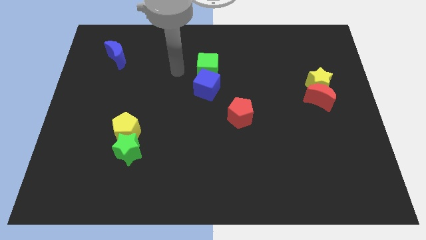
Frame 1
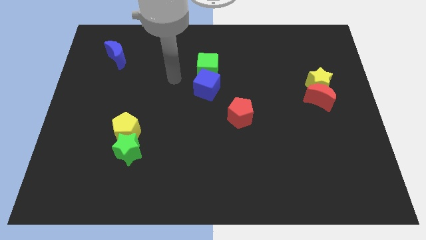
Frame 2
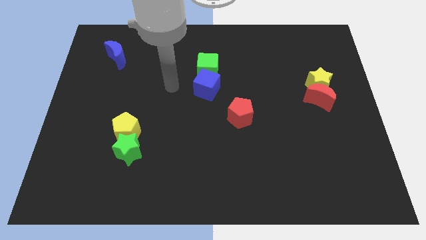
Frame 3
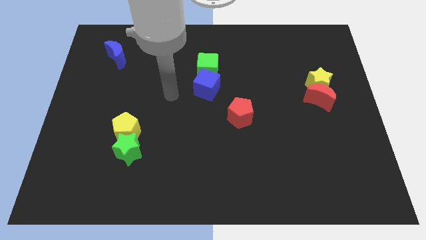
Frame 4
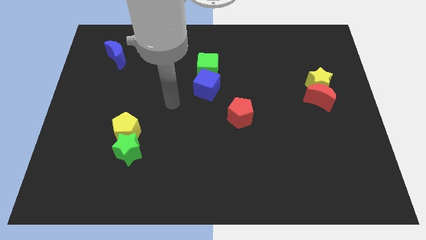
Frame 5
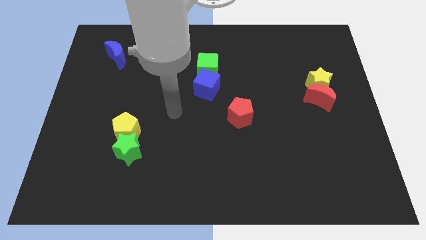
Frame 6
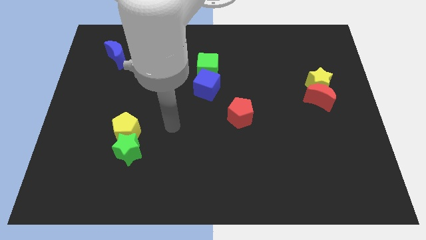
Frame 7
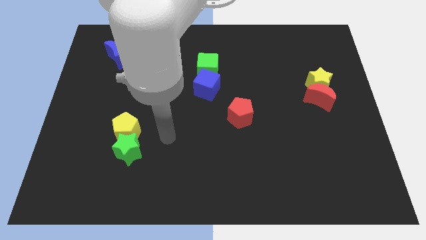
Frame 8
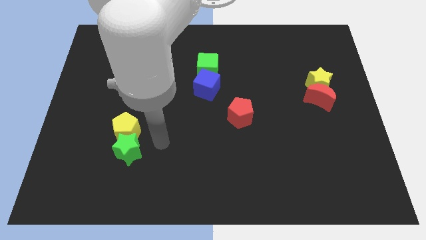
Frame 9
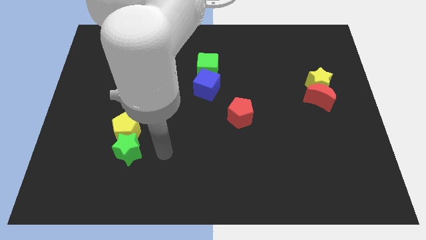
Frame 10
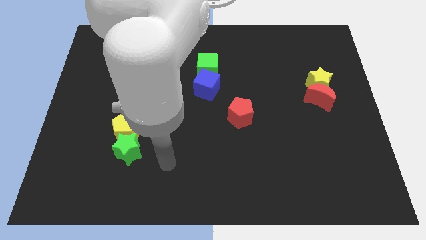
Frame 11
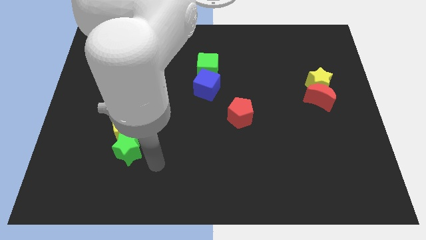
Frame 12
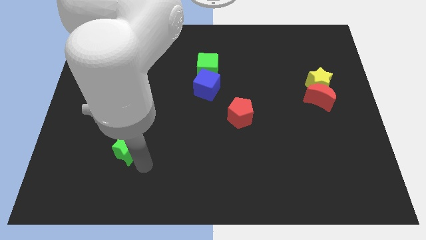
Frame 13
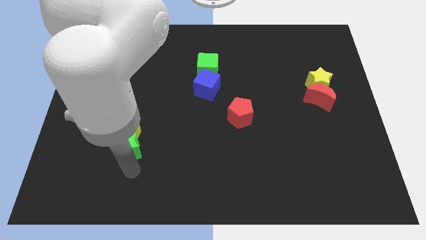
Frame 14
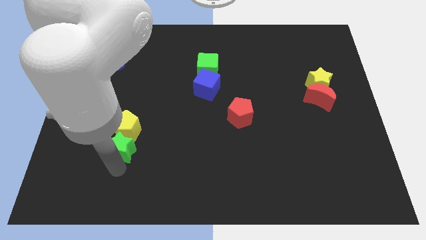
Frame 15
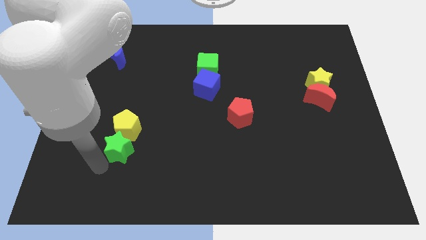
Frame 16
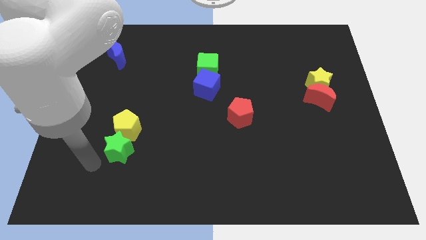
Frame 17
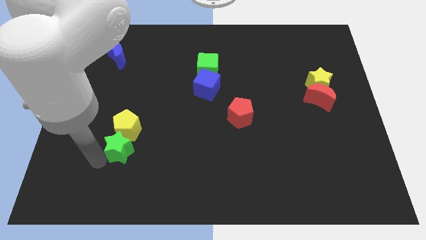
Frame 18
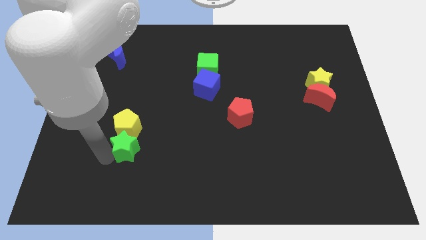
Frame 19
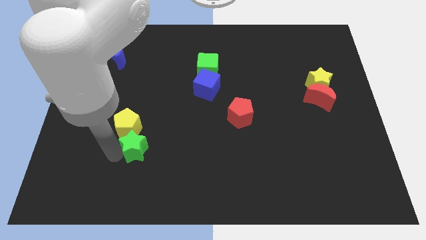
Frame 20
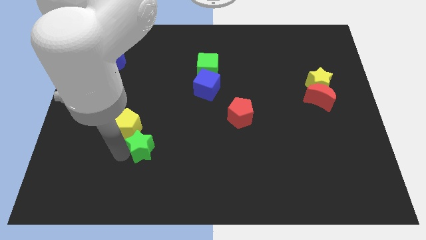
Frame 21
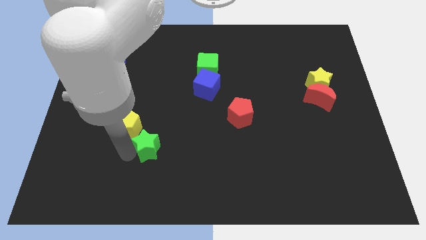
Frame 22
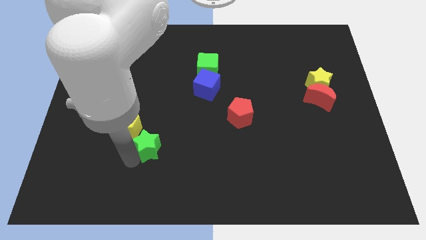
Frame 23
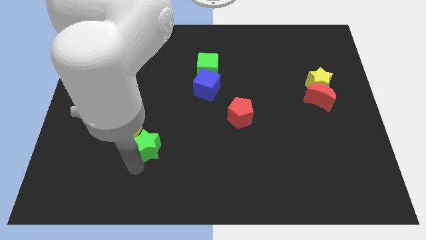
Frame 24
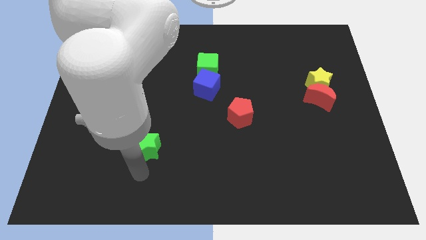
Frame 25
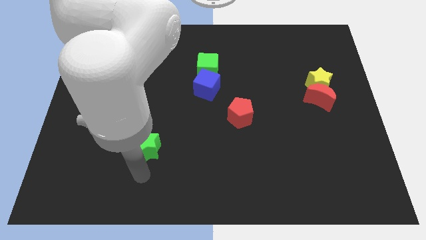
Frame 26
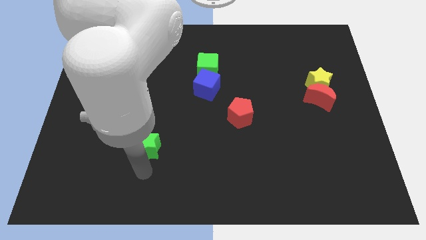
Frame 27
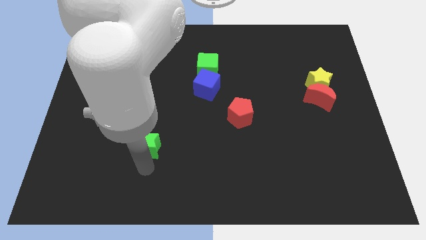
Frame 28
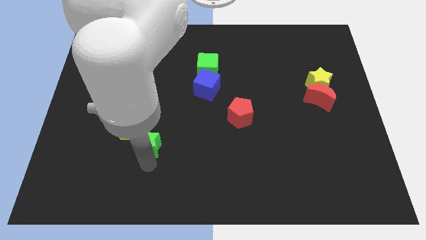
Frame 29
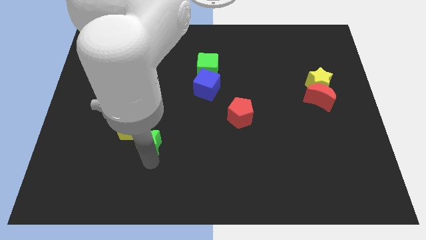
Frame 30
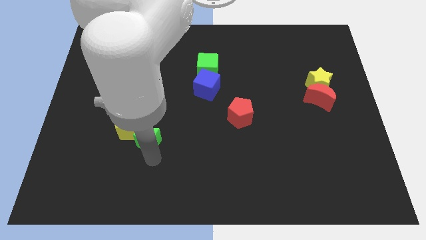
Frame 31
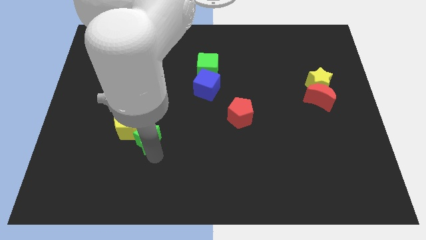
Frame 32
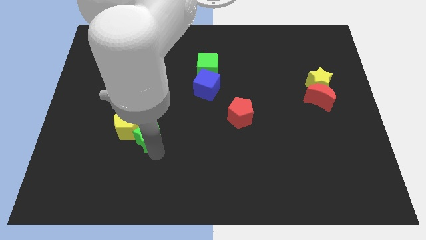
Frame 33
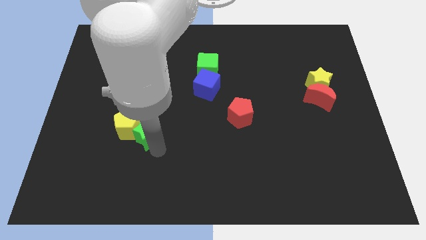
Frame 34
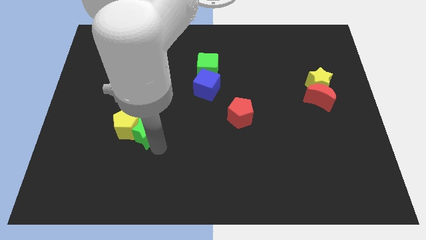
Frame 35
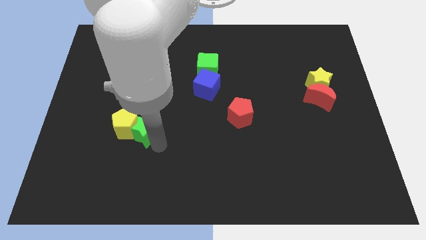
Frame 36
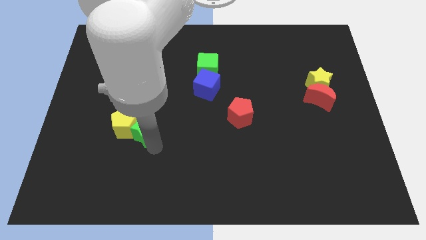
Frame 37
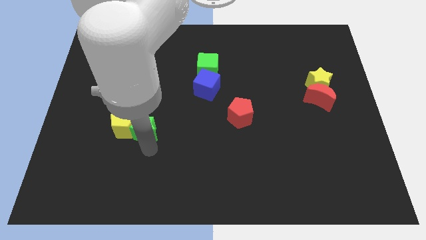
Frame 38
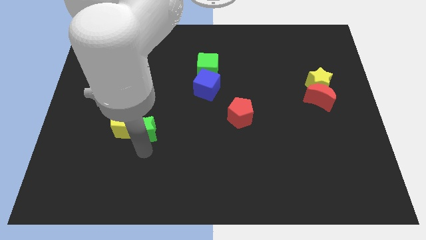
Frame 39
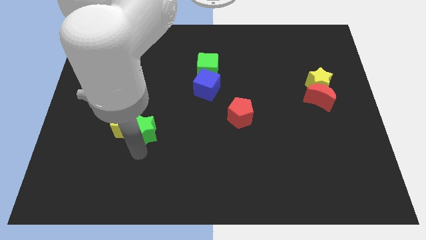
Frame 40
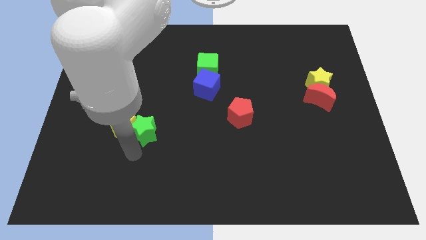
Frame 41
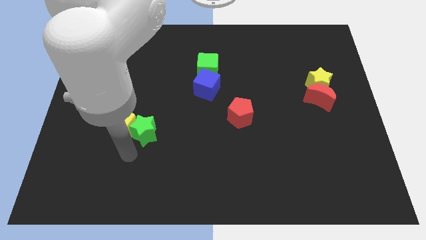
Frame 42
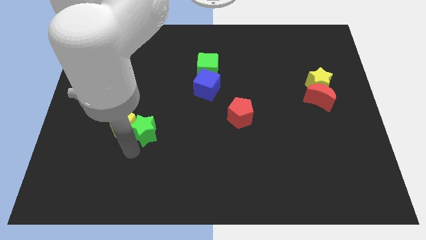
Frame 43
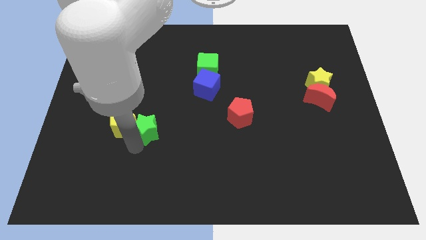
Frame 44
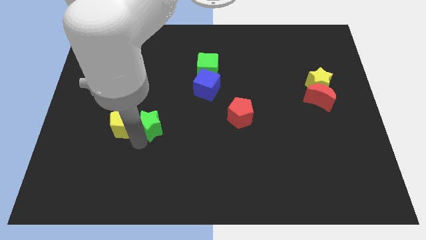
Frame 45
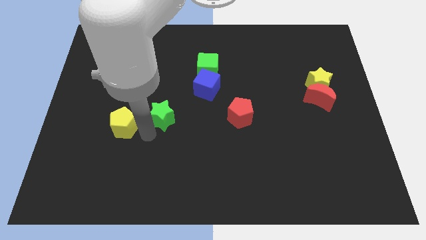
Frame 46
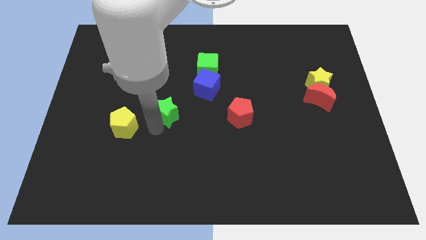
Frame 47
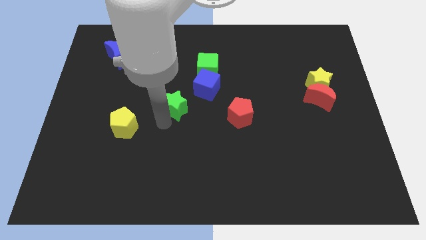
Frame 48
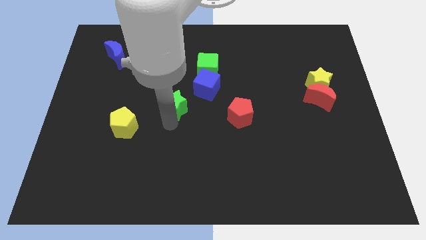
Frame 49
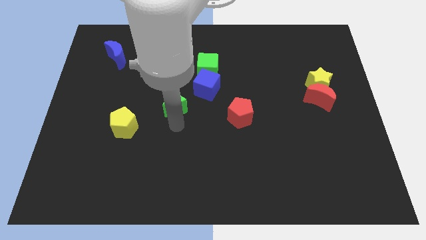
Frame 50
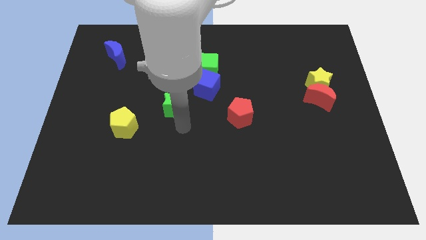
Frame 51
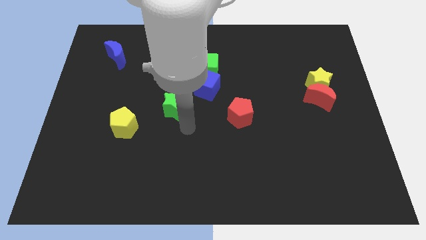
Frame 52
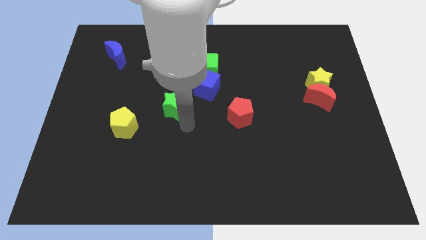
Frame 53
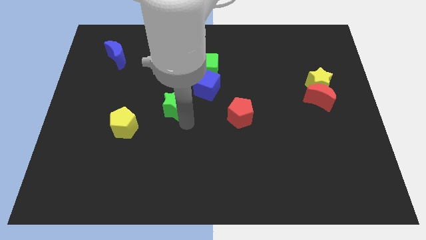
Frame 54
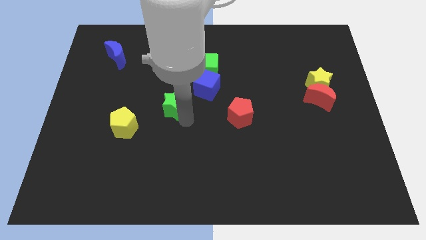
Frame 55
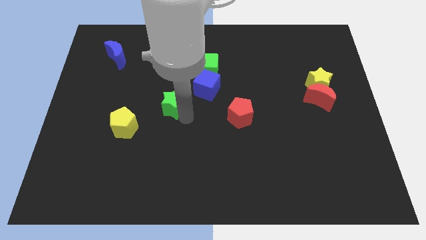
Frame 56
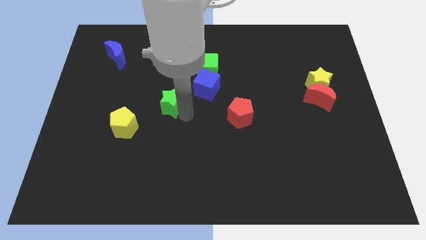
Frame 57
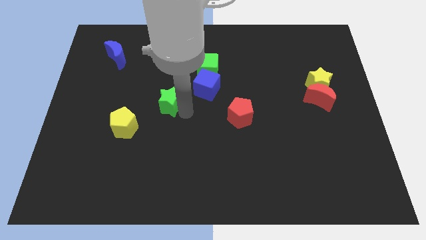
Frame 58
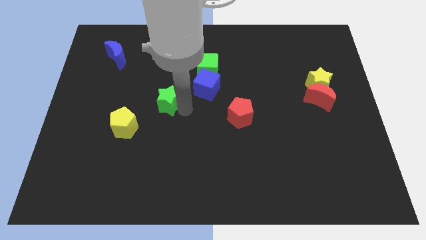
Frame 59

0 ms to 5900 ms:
move the green star to the left of the blue cube

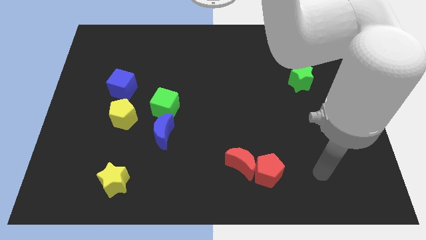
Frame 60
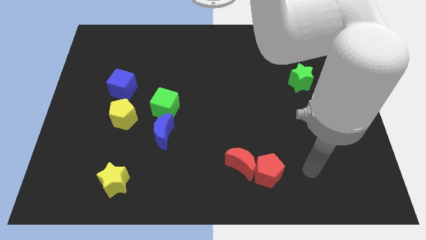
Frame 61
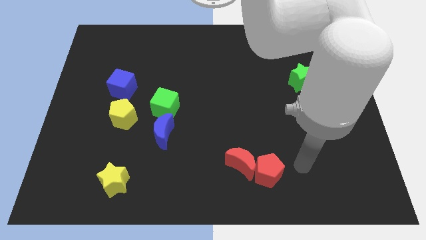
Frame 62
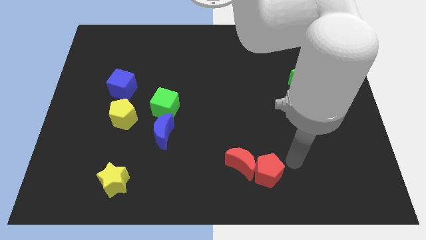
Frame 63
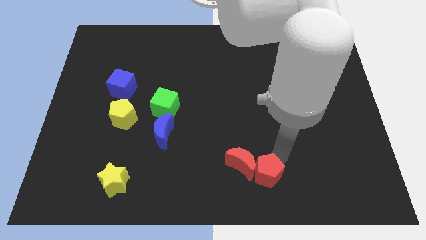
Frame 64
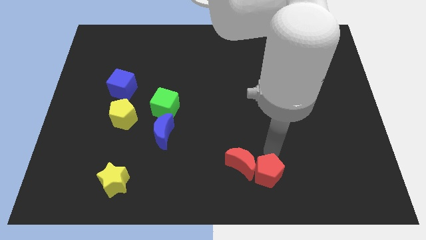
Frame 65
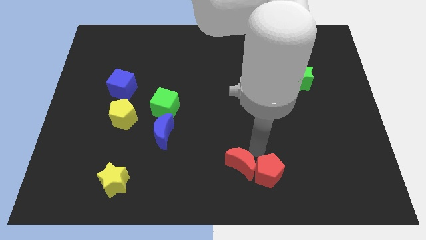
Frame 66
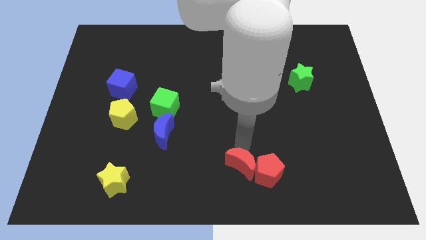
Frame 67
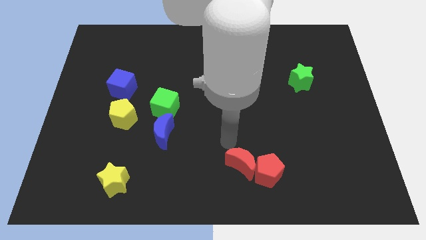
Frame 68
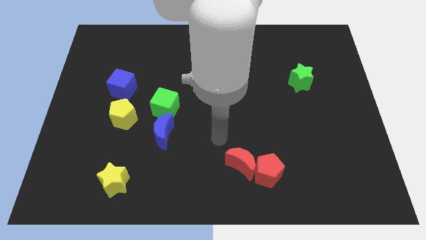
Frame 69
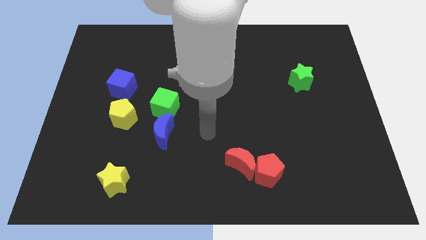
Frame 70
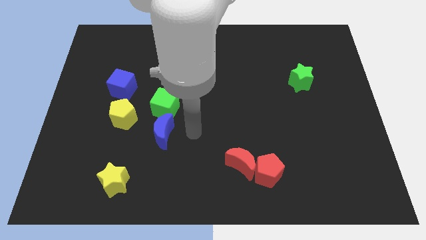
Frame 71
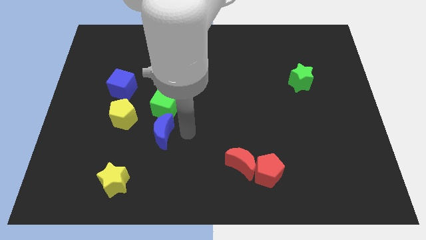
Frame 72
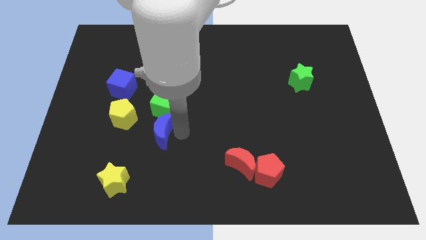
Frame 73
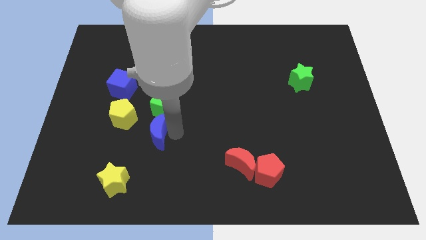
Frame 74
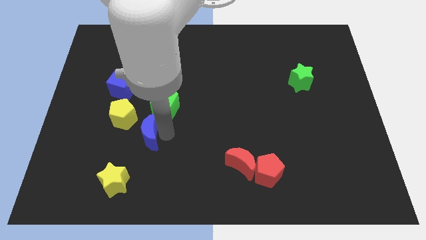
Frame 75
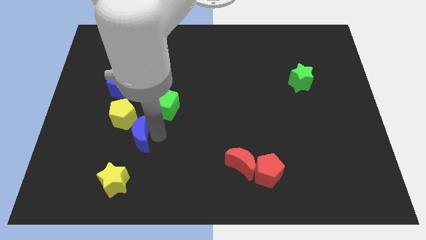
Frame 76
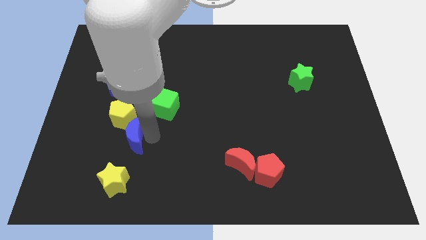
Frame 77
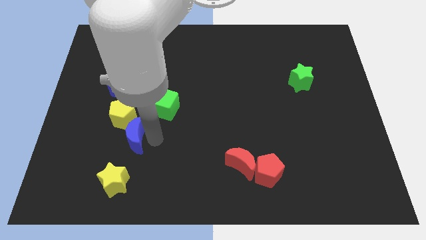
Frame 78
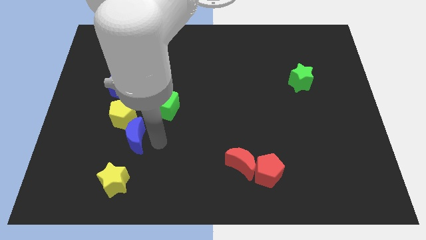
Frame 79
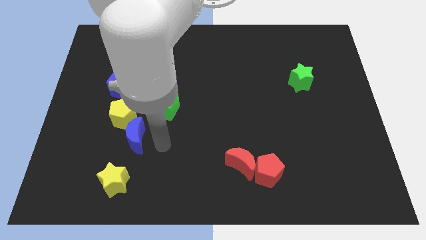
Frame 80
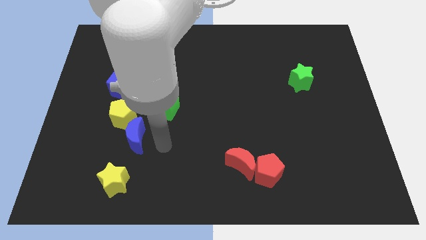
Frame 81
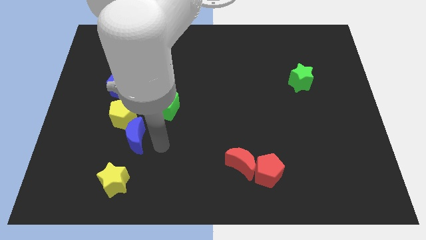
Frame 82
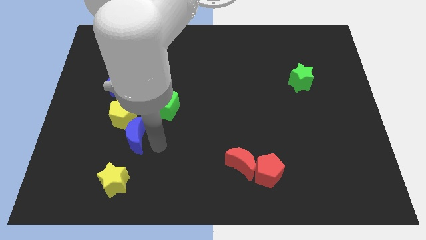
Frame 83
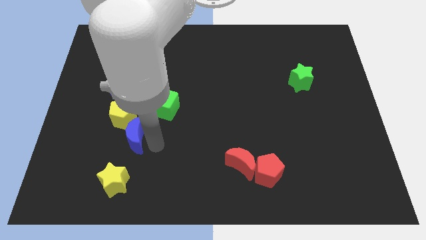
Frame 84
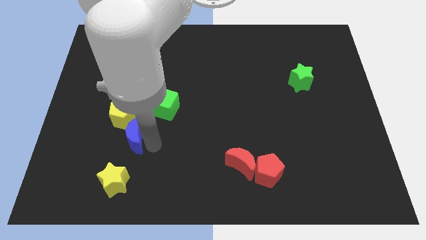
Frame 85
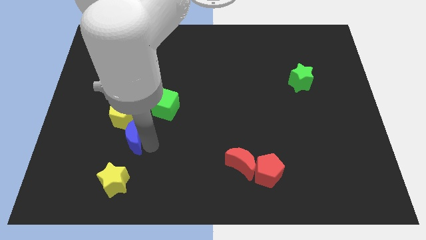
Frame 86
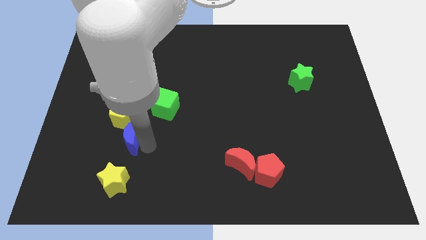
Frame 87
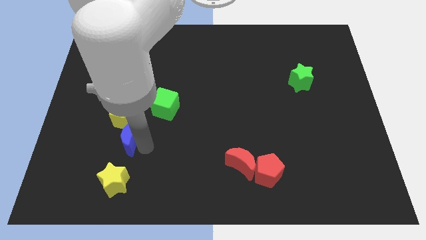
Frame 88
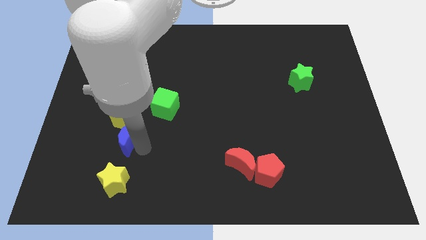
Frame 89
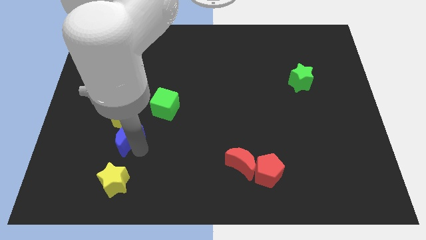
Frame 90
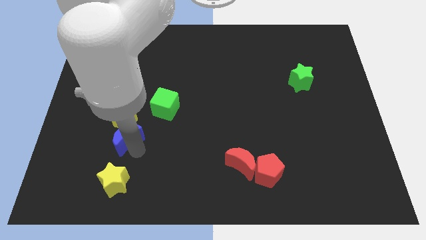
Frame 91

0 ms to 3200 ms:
slide the blue moon below the blue cube

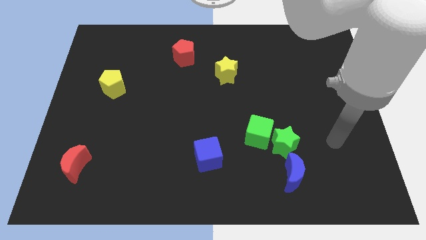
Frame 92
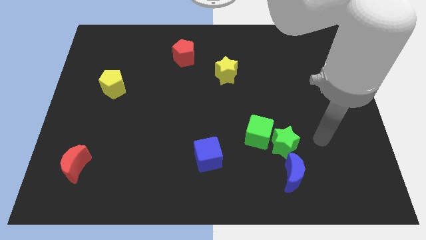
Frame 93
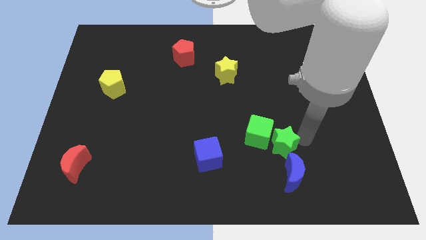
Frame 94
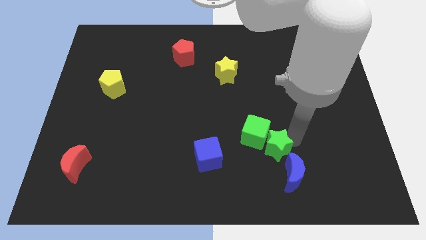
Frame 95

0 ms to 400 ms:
move the green cube diagonally up and to the right of the blue cube
